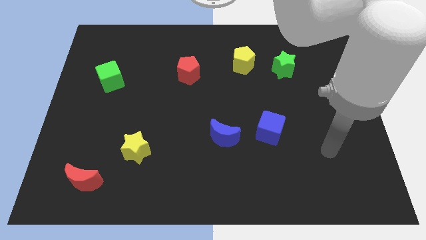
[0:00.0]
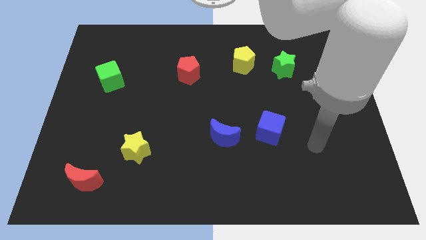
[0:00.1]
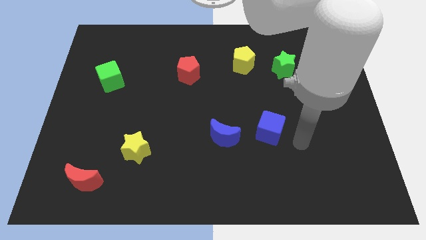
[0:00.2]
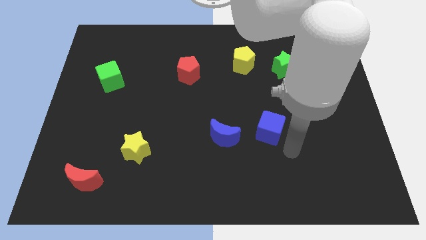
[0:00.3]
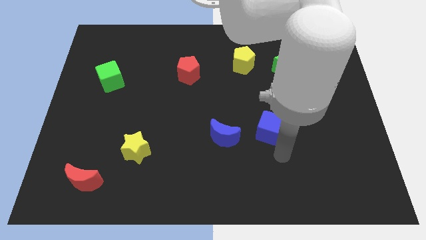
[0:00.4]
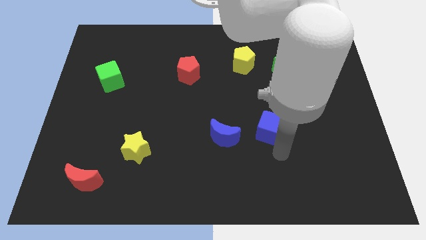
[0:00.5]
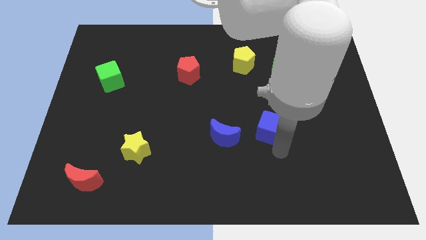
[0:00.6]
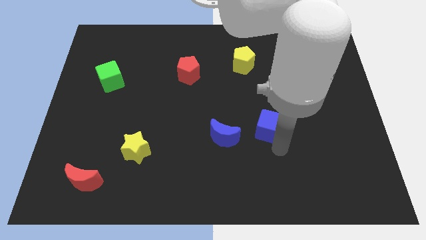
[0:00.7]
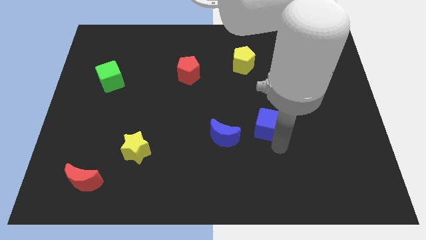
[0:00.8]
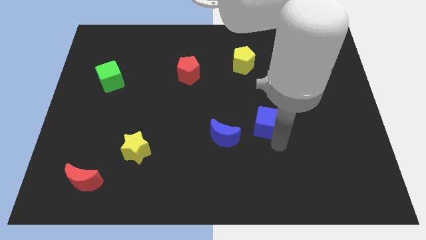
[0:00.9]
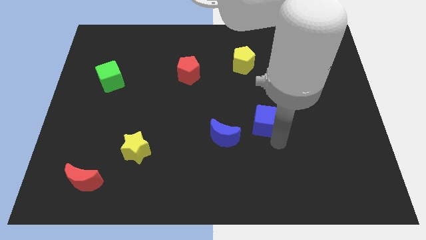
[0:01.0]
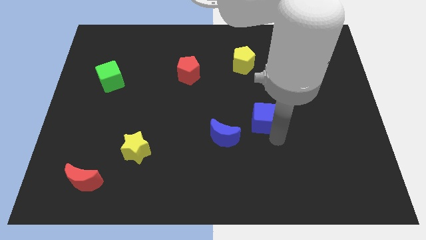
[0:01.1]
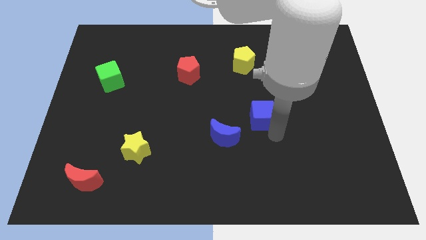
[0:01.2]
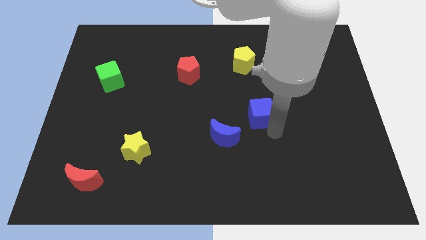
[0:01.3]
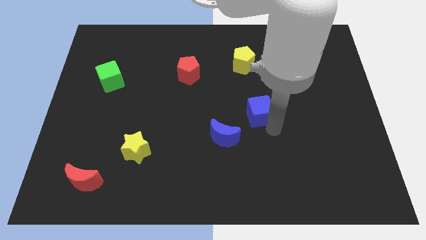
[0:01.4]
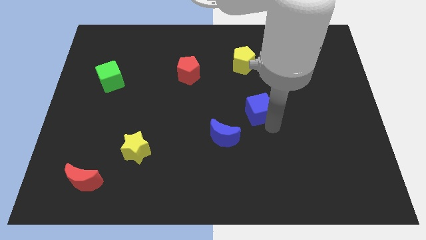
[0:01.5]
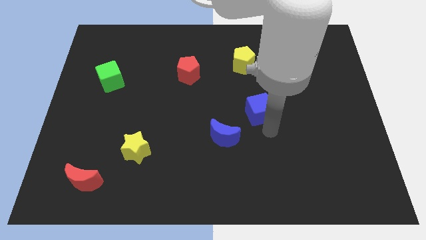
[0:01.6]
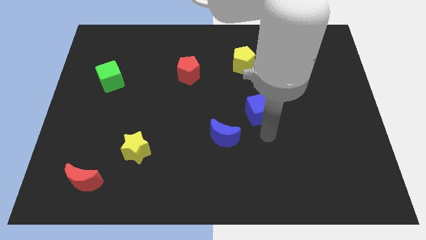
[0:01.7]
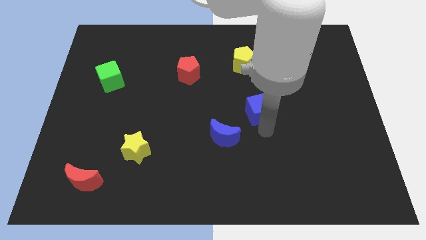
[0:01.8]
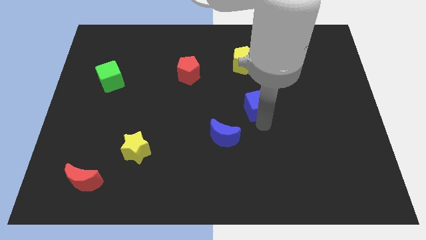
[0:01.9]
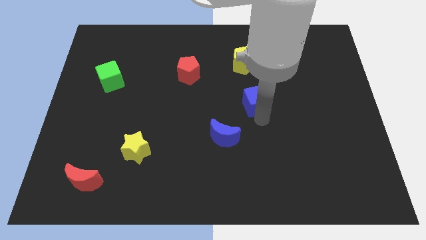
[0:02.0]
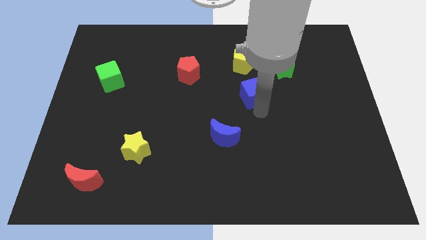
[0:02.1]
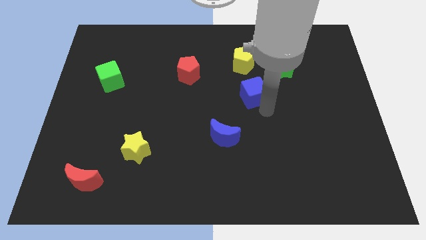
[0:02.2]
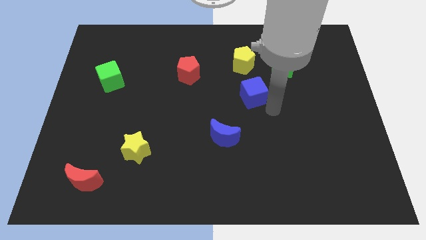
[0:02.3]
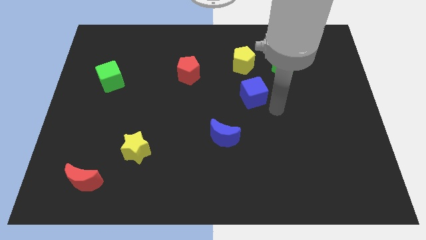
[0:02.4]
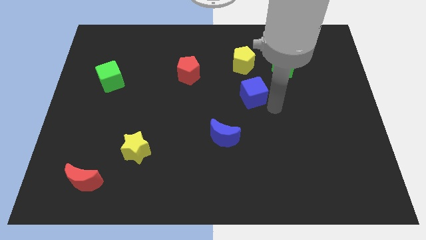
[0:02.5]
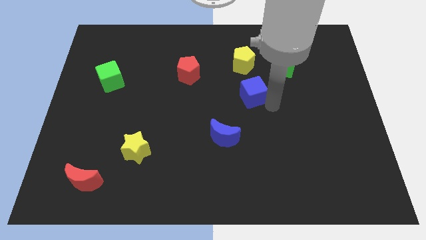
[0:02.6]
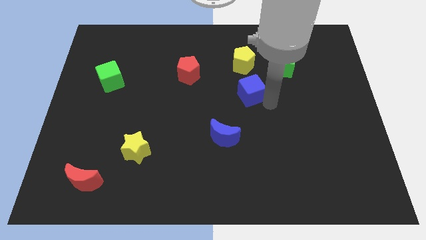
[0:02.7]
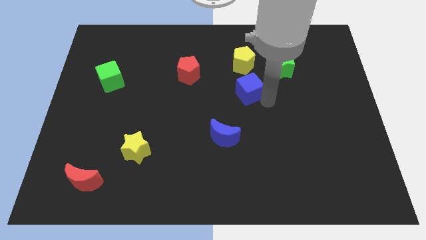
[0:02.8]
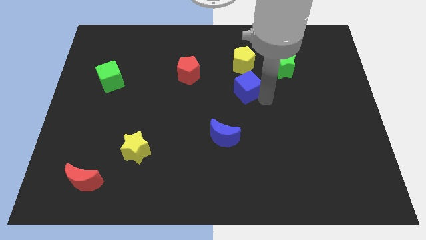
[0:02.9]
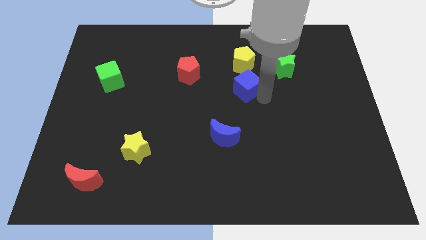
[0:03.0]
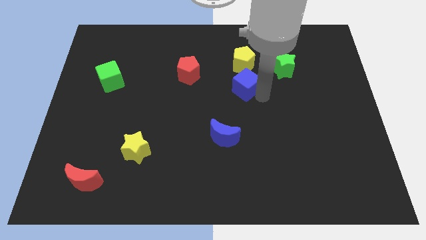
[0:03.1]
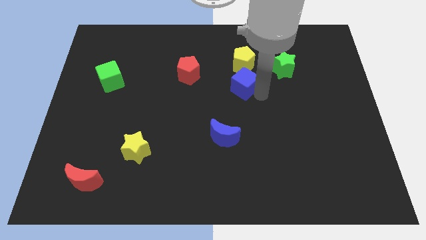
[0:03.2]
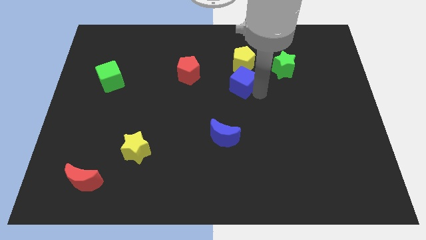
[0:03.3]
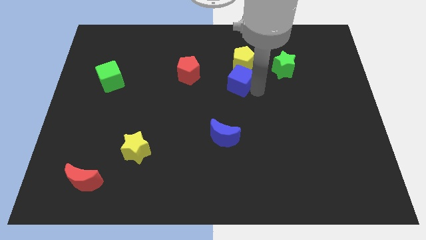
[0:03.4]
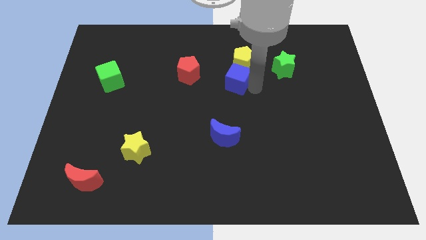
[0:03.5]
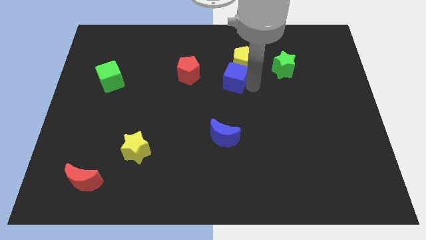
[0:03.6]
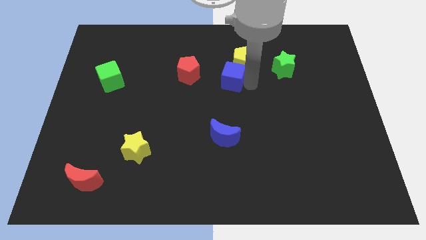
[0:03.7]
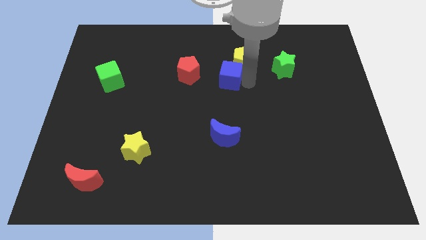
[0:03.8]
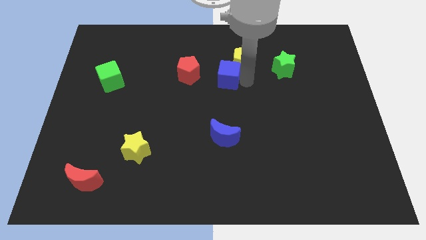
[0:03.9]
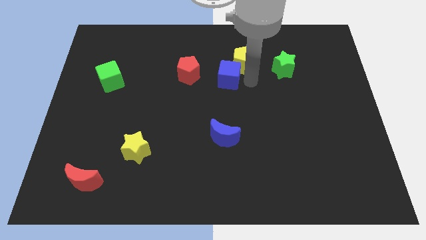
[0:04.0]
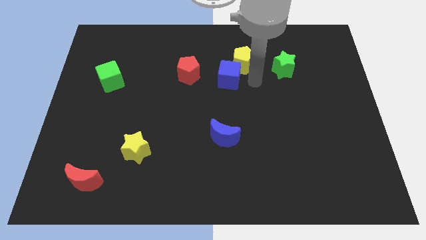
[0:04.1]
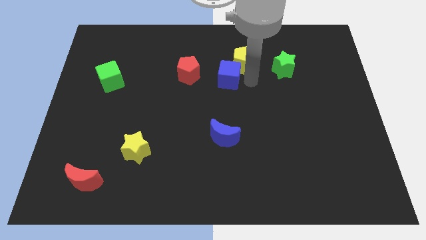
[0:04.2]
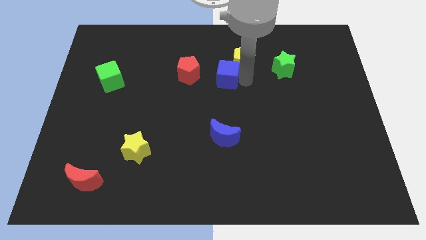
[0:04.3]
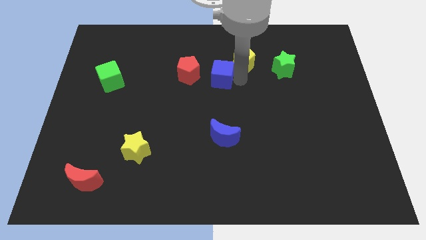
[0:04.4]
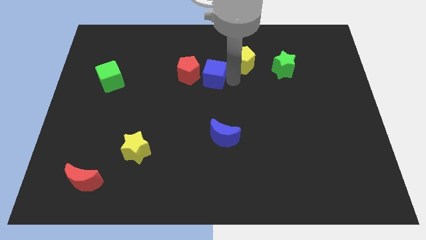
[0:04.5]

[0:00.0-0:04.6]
push the blue cube diagonally up and left

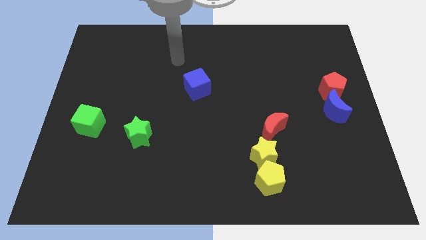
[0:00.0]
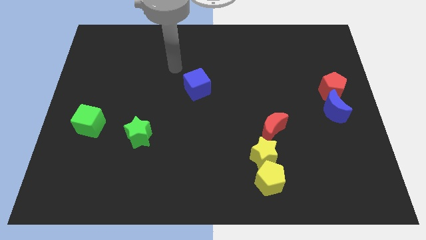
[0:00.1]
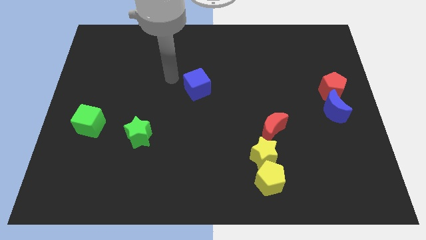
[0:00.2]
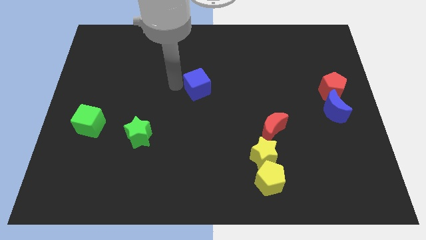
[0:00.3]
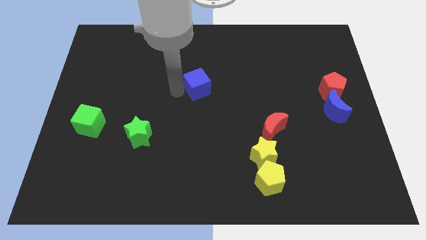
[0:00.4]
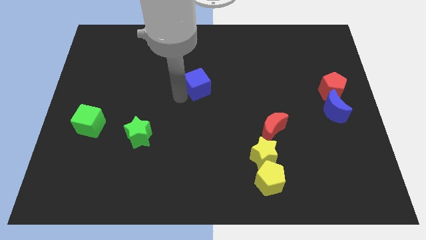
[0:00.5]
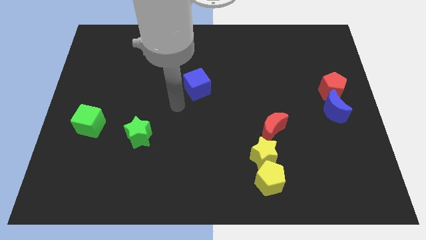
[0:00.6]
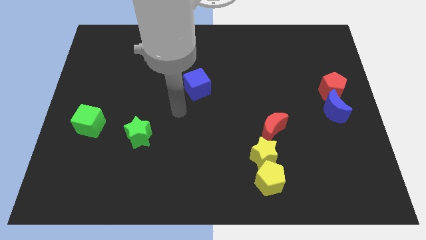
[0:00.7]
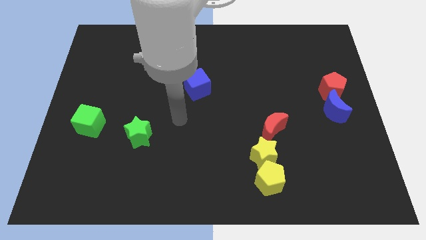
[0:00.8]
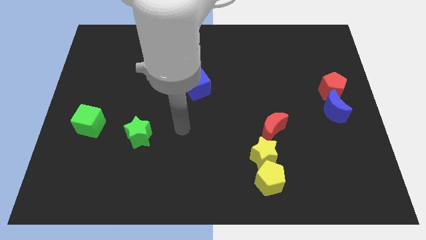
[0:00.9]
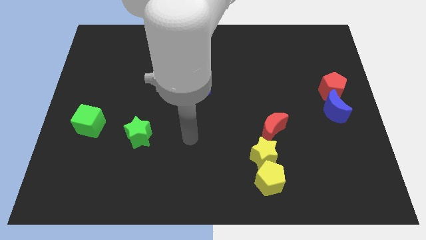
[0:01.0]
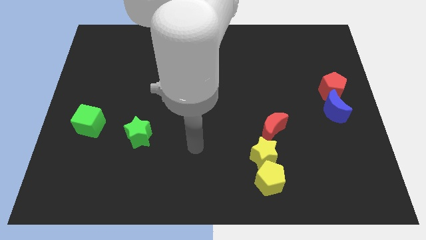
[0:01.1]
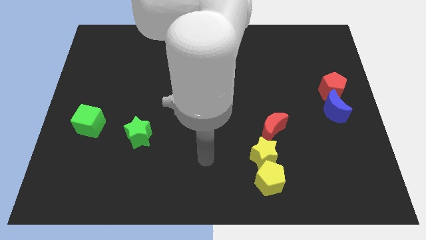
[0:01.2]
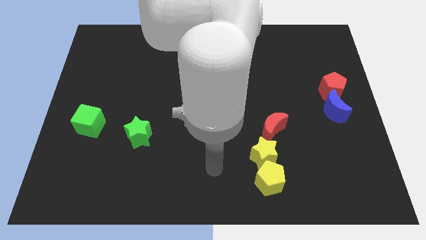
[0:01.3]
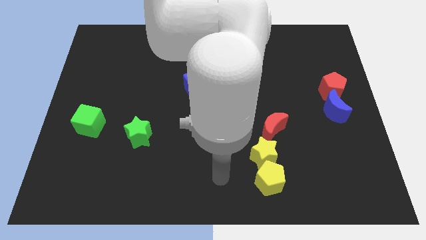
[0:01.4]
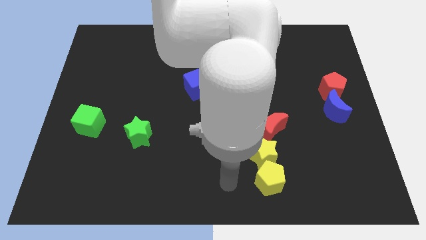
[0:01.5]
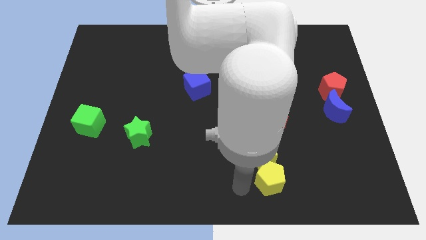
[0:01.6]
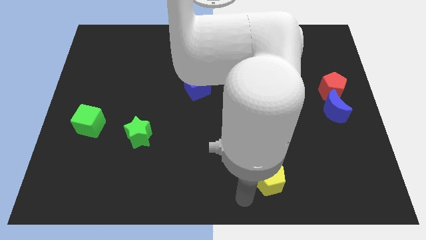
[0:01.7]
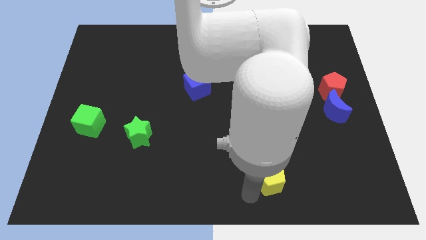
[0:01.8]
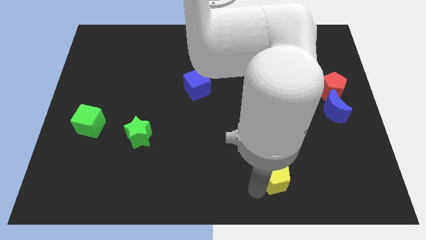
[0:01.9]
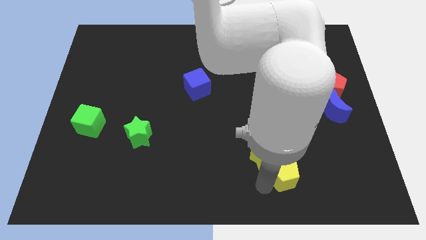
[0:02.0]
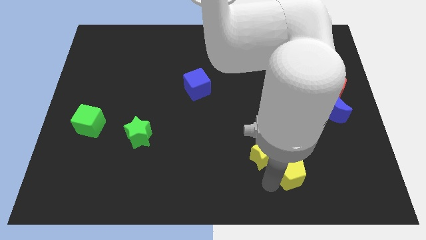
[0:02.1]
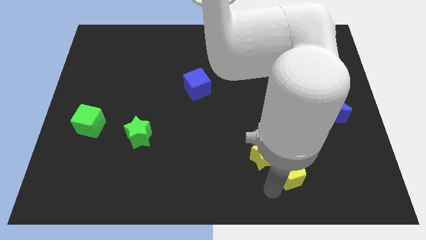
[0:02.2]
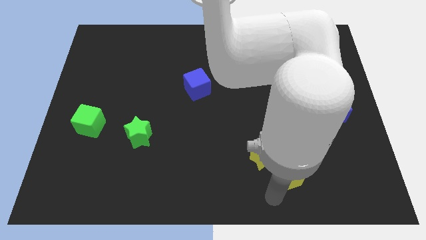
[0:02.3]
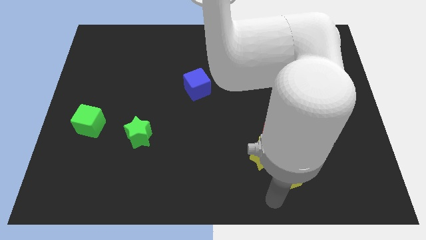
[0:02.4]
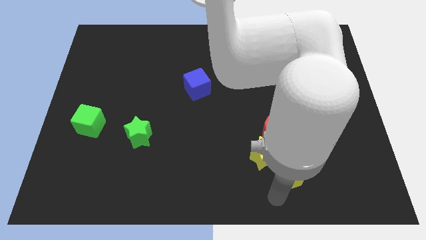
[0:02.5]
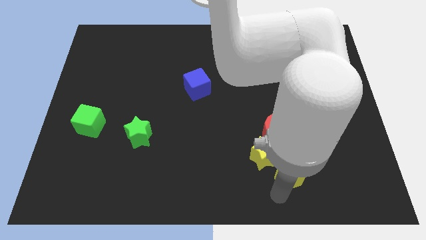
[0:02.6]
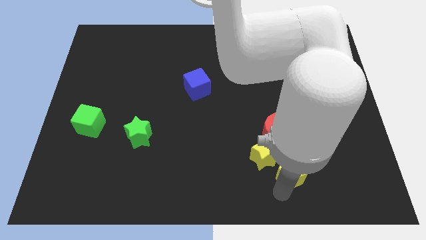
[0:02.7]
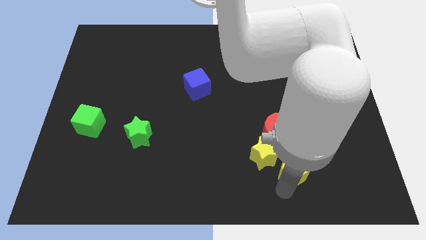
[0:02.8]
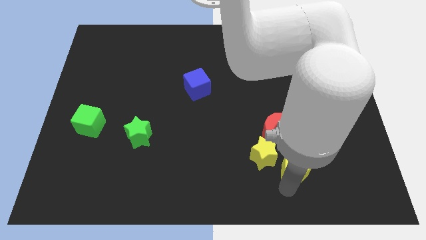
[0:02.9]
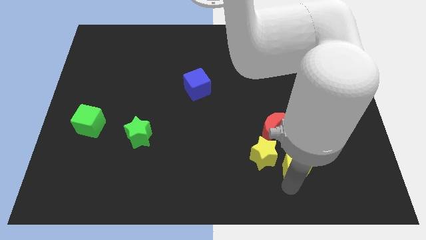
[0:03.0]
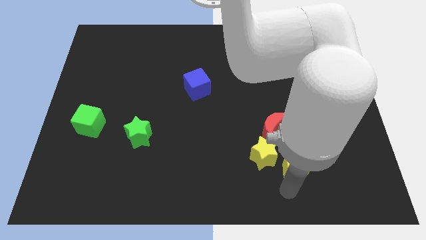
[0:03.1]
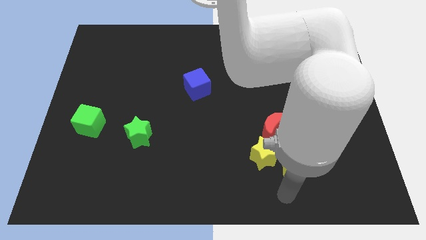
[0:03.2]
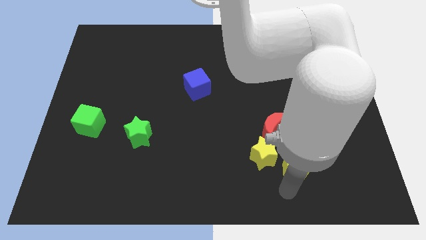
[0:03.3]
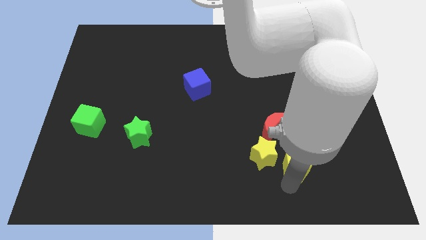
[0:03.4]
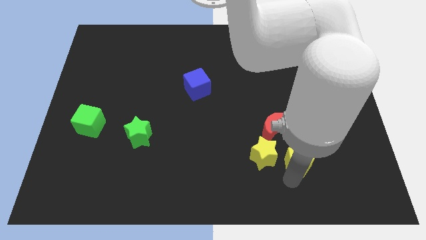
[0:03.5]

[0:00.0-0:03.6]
move the yellow pentagon diagonally up and right slightly
